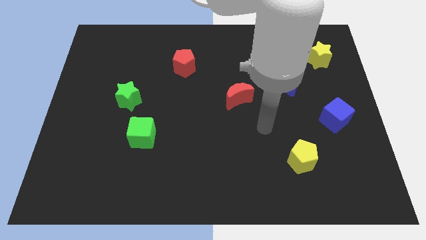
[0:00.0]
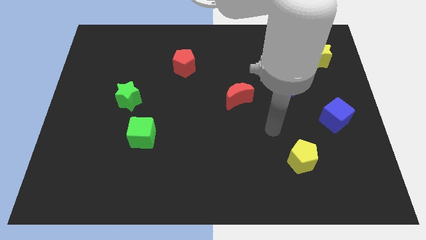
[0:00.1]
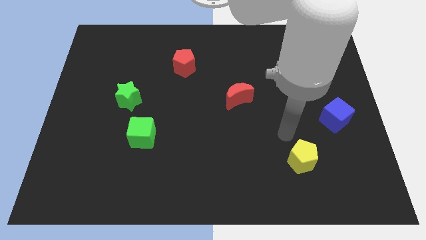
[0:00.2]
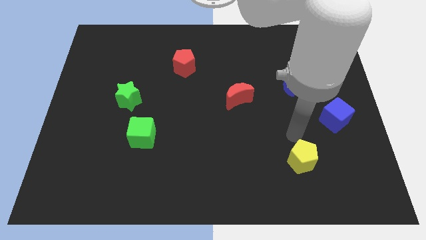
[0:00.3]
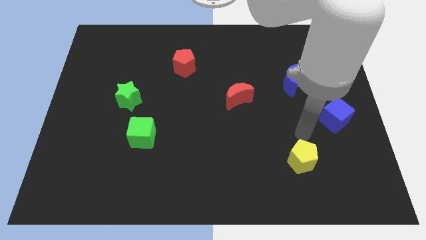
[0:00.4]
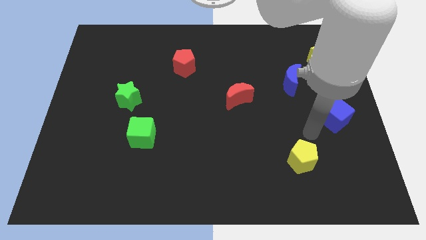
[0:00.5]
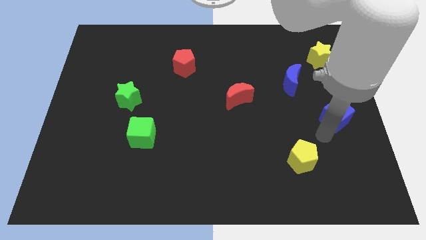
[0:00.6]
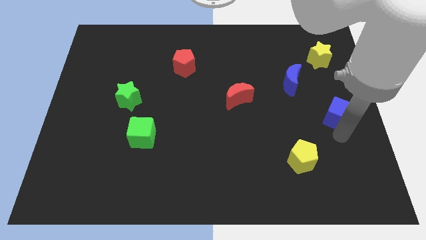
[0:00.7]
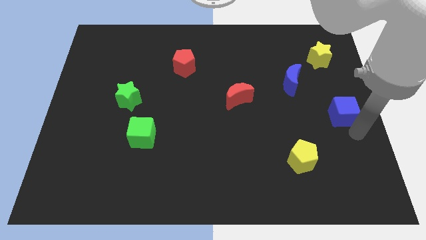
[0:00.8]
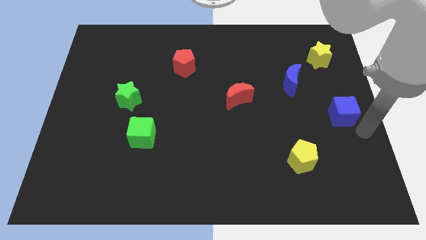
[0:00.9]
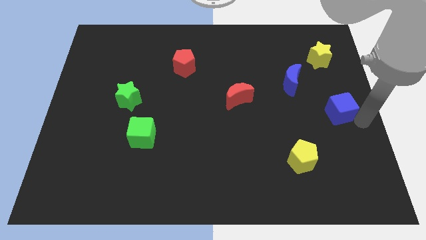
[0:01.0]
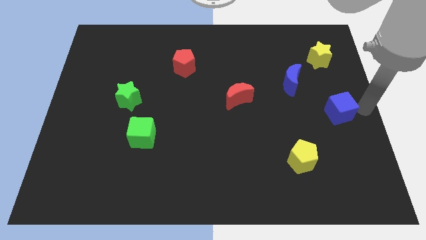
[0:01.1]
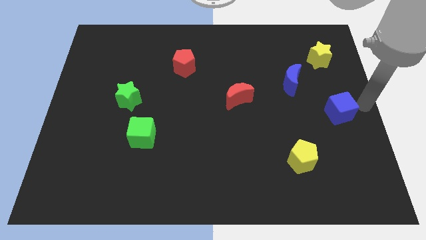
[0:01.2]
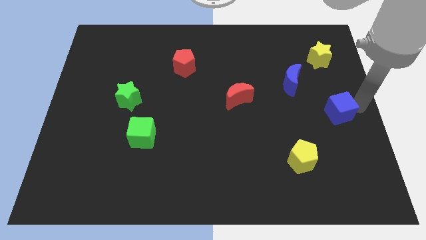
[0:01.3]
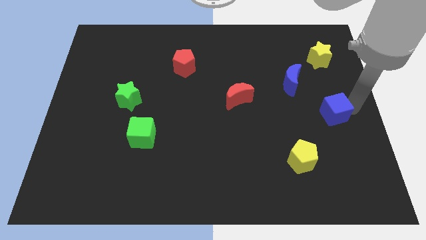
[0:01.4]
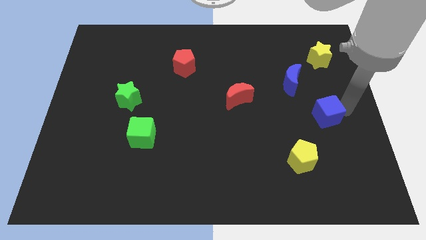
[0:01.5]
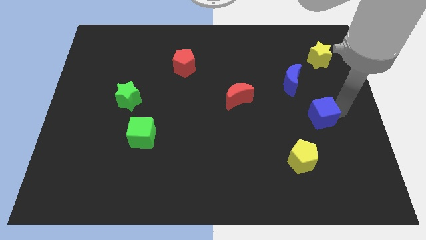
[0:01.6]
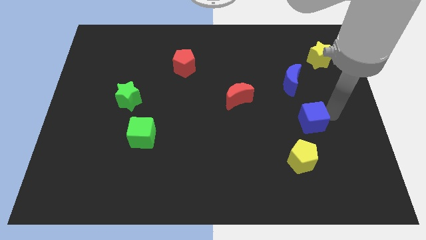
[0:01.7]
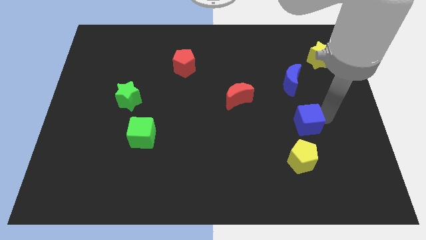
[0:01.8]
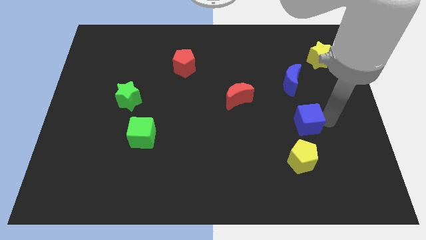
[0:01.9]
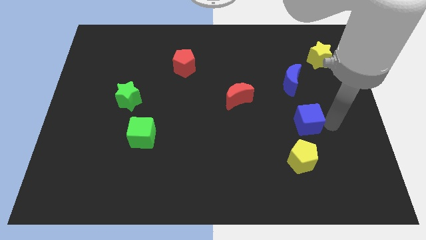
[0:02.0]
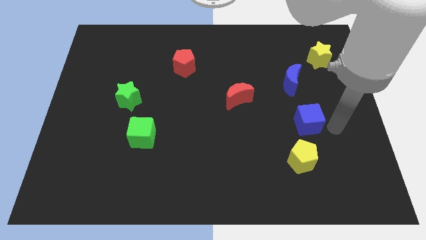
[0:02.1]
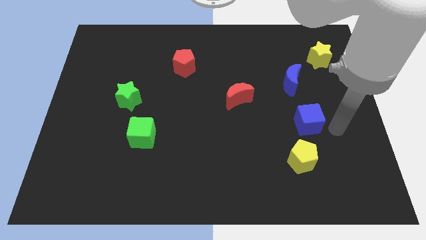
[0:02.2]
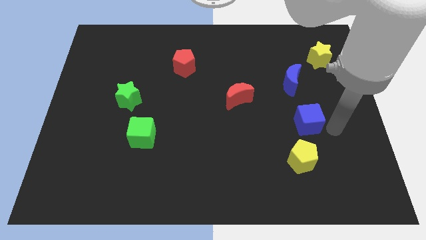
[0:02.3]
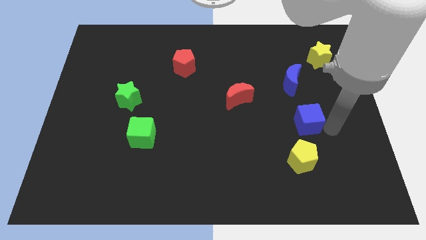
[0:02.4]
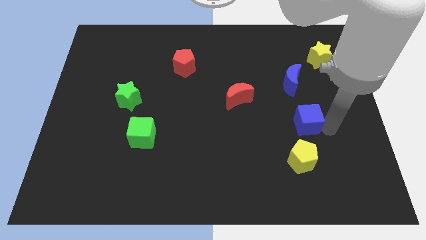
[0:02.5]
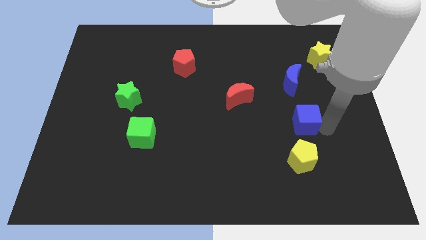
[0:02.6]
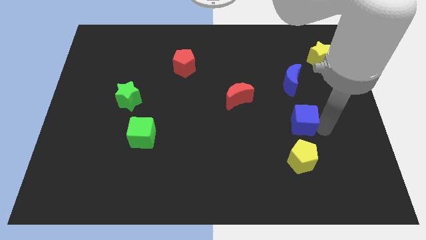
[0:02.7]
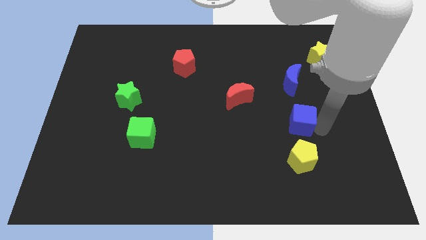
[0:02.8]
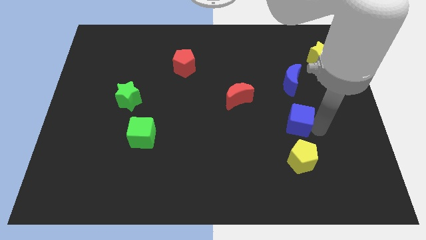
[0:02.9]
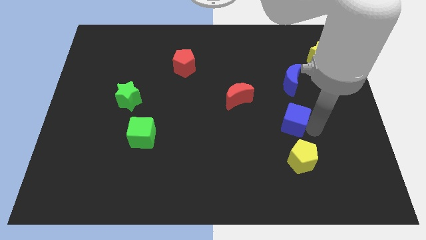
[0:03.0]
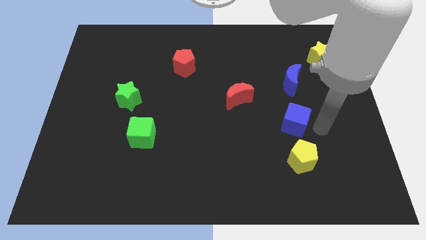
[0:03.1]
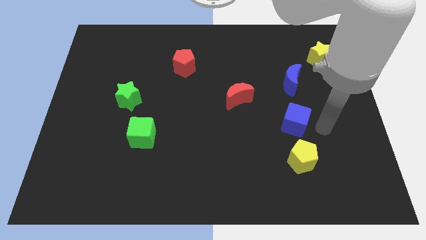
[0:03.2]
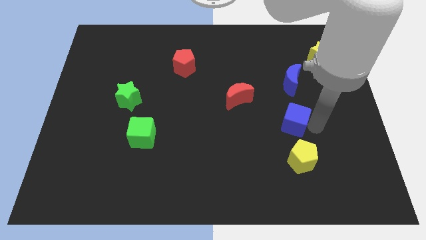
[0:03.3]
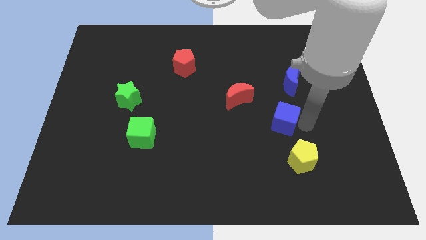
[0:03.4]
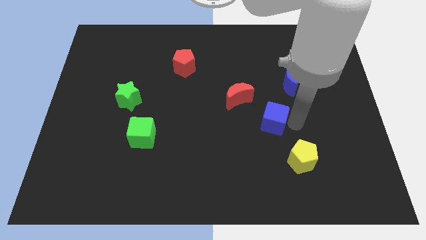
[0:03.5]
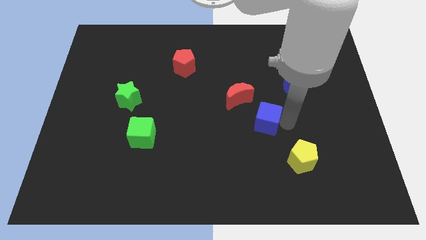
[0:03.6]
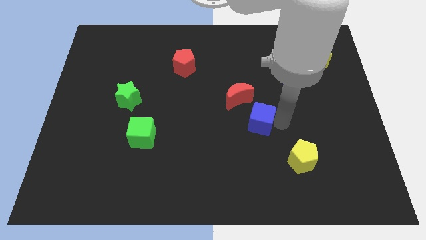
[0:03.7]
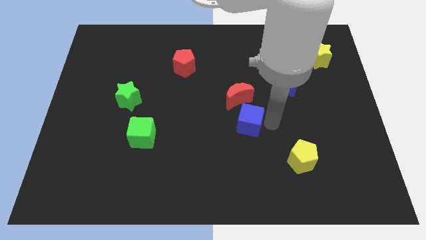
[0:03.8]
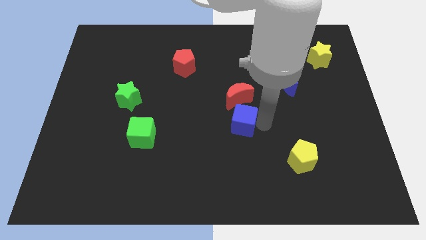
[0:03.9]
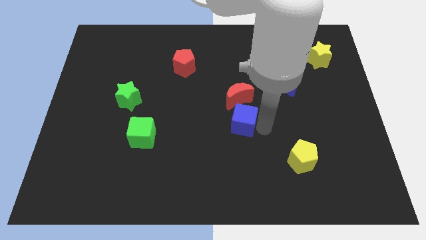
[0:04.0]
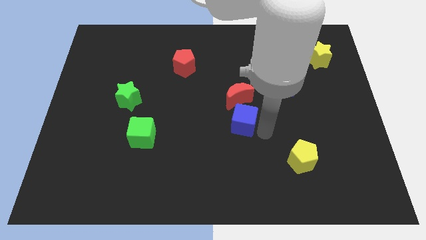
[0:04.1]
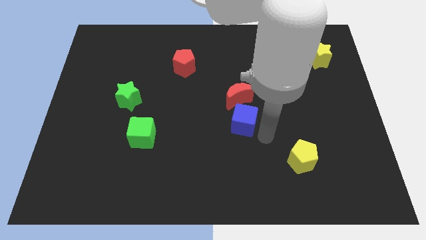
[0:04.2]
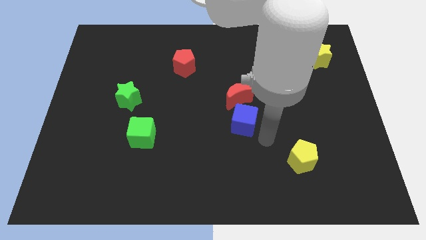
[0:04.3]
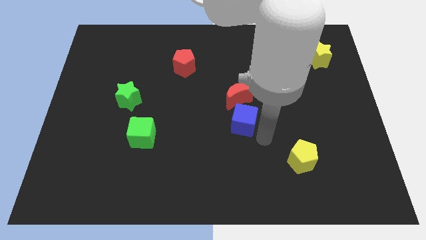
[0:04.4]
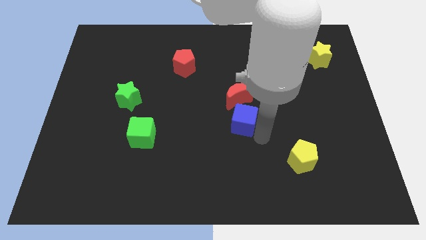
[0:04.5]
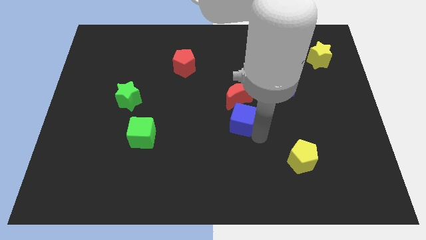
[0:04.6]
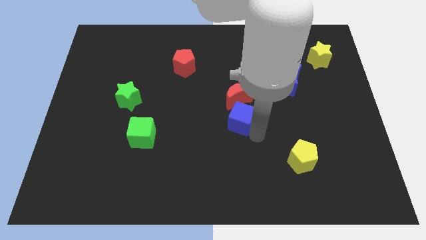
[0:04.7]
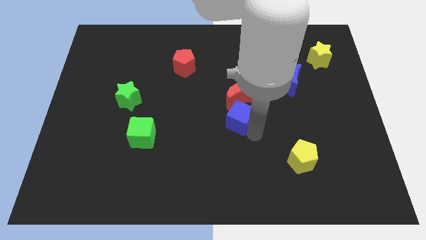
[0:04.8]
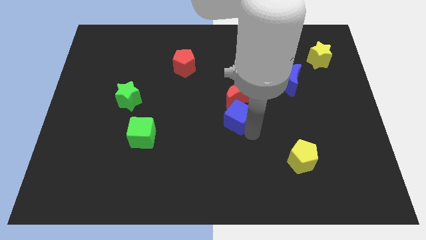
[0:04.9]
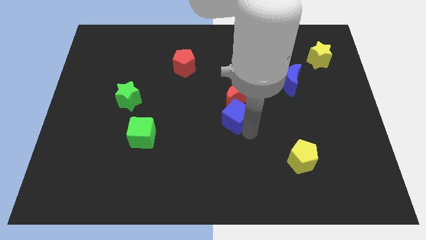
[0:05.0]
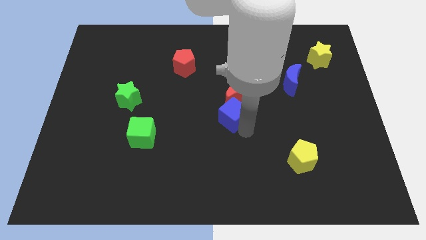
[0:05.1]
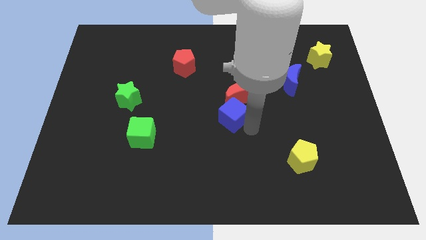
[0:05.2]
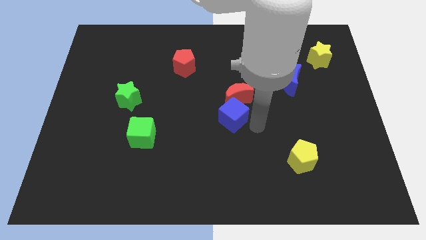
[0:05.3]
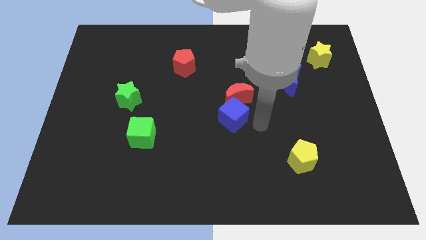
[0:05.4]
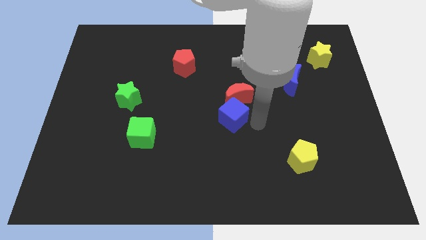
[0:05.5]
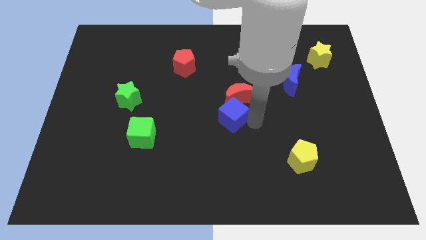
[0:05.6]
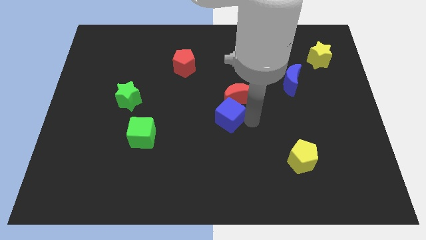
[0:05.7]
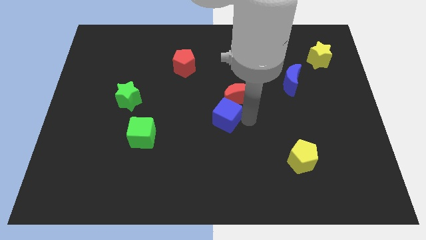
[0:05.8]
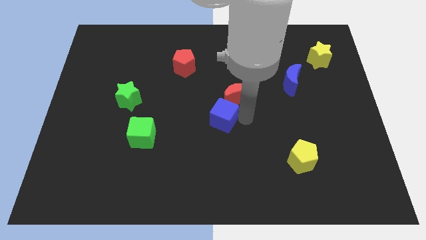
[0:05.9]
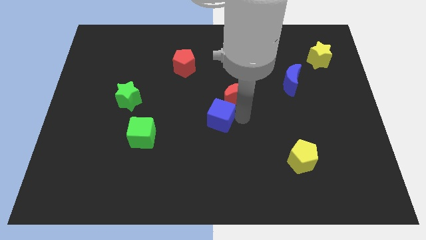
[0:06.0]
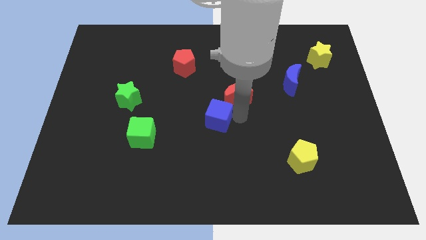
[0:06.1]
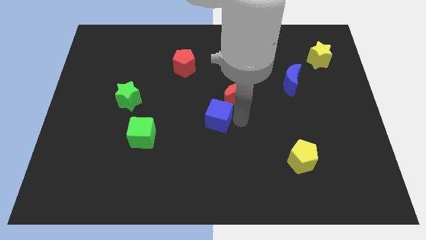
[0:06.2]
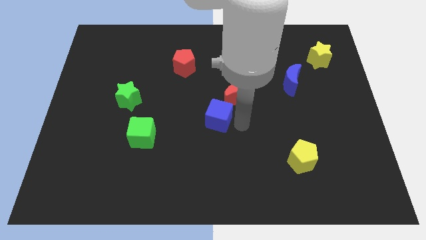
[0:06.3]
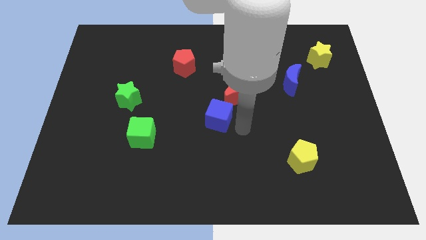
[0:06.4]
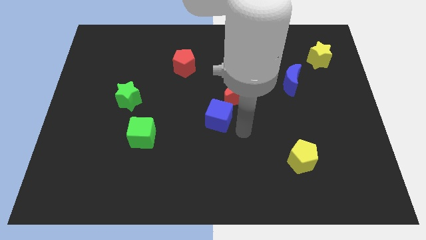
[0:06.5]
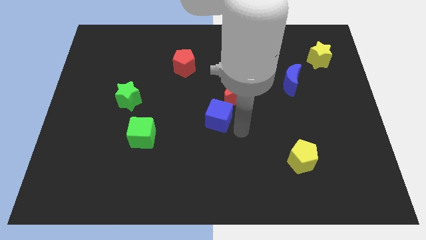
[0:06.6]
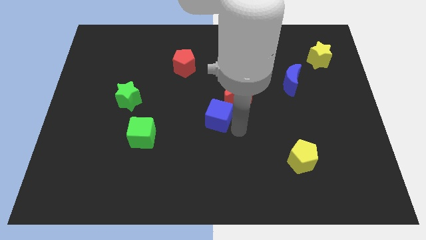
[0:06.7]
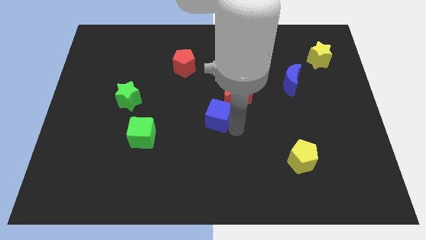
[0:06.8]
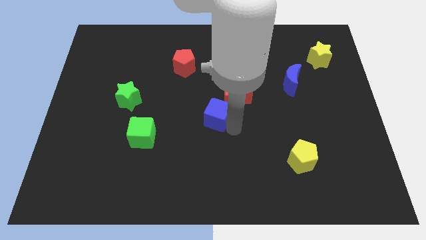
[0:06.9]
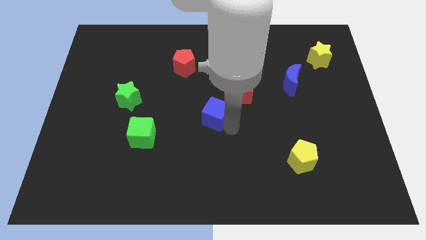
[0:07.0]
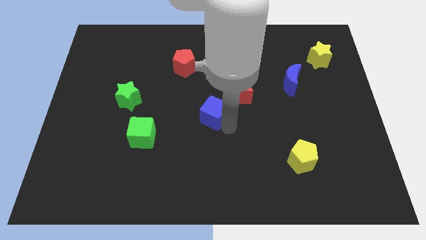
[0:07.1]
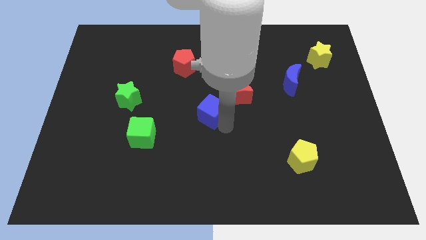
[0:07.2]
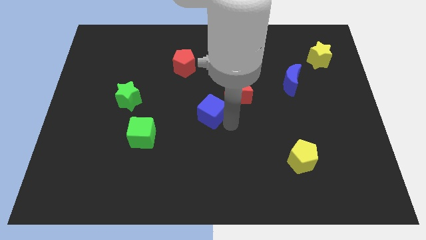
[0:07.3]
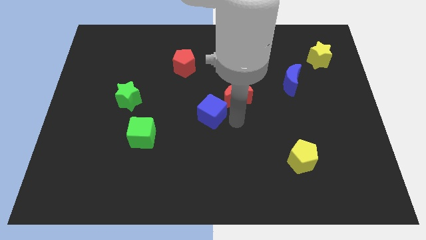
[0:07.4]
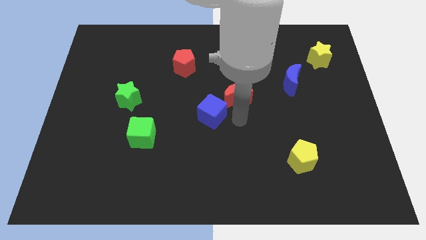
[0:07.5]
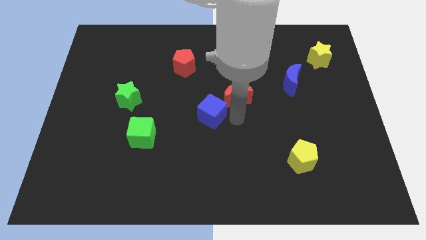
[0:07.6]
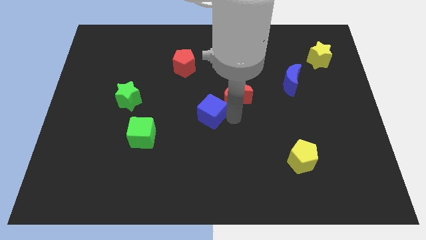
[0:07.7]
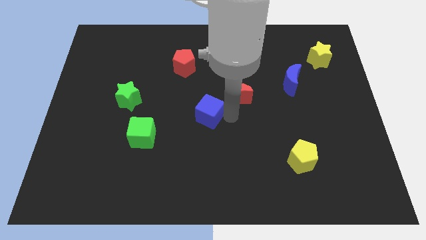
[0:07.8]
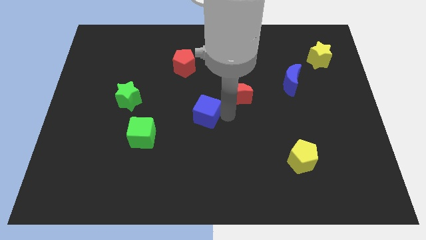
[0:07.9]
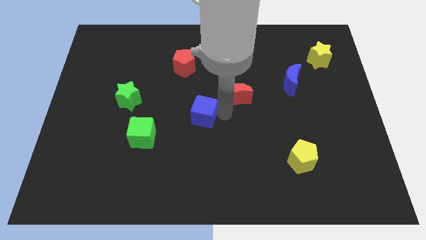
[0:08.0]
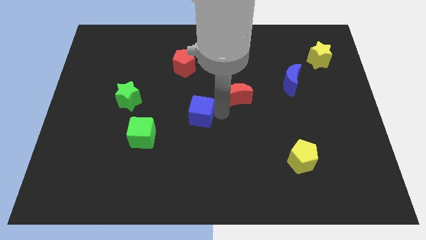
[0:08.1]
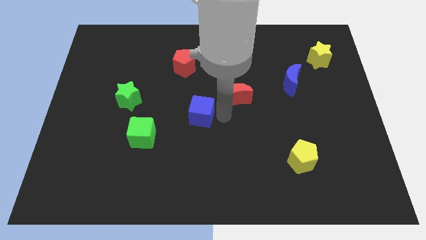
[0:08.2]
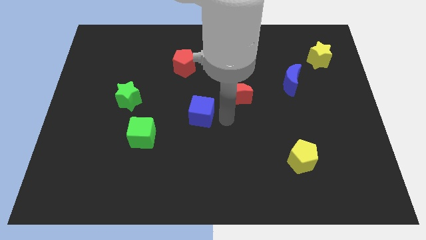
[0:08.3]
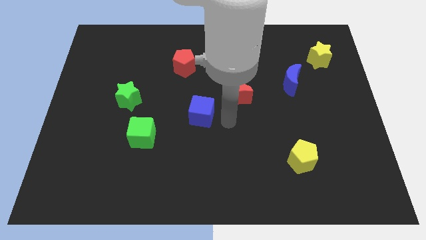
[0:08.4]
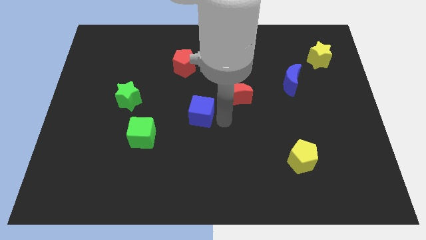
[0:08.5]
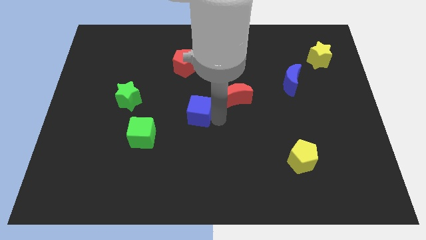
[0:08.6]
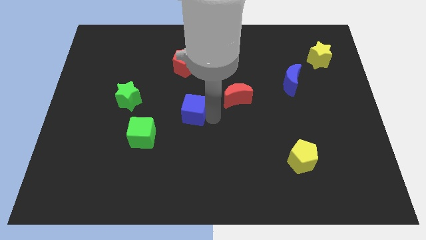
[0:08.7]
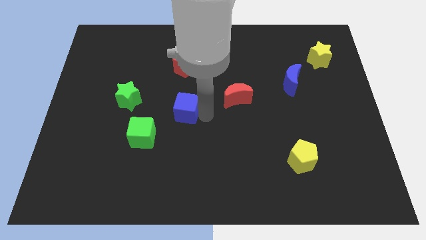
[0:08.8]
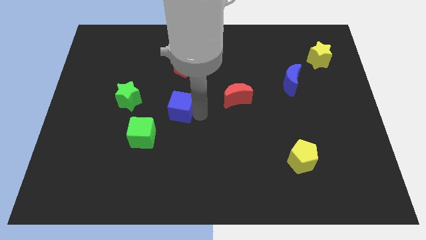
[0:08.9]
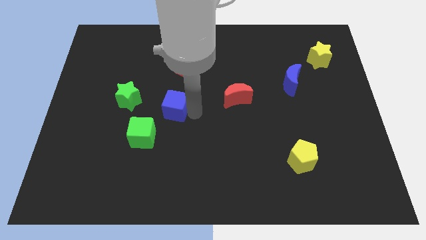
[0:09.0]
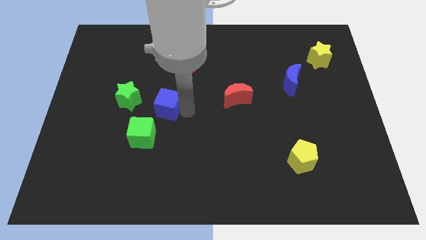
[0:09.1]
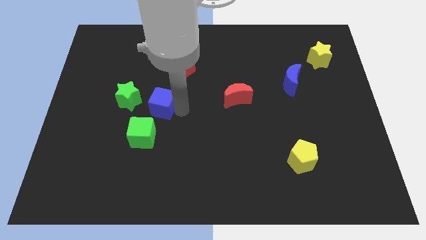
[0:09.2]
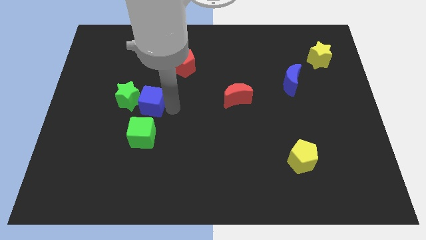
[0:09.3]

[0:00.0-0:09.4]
slide the blue cube towards the green star
